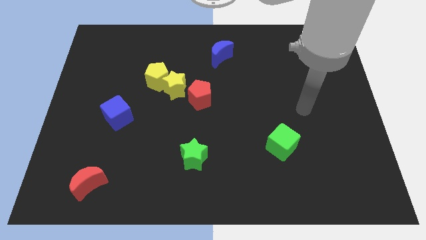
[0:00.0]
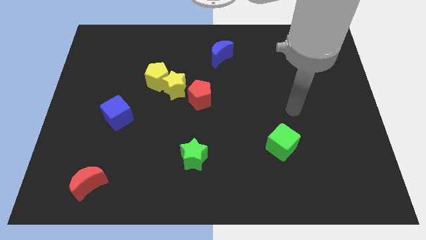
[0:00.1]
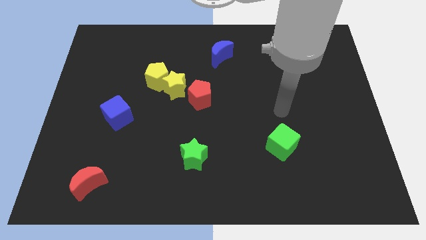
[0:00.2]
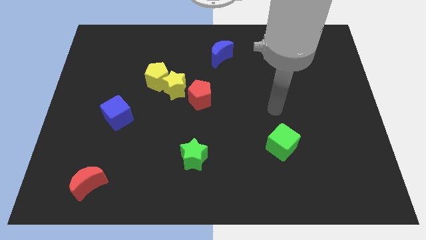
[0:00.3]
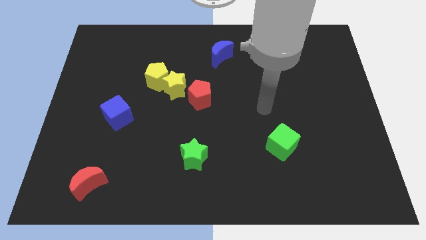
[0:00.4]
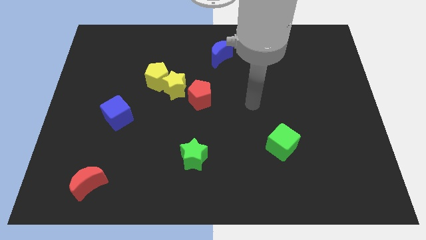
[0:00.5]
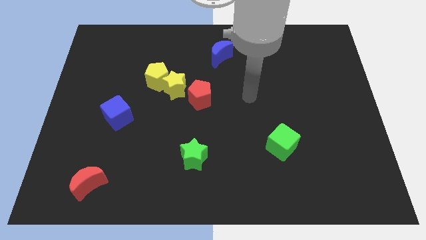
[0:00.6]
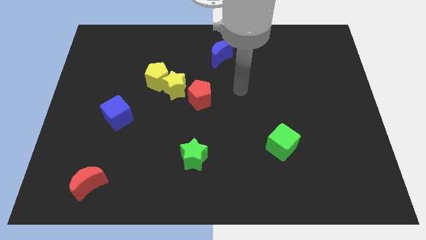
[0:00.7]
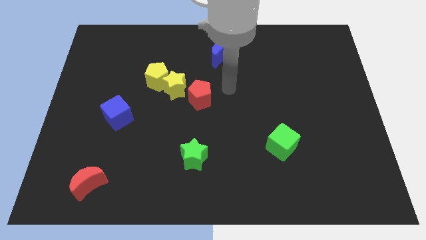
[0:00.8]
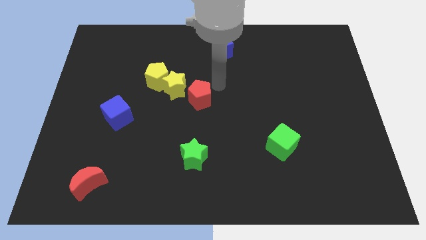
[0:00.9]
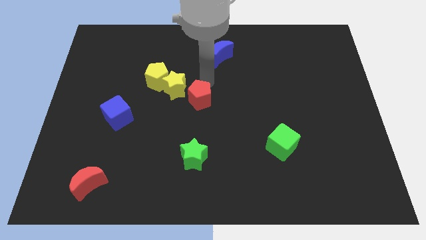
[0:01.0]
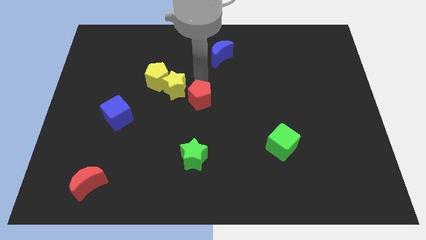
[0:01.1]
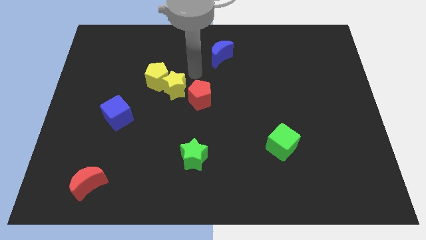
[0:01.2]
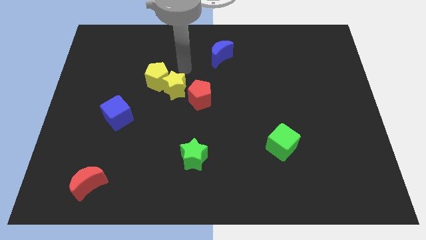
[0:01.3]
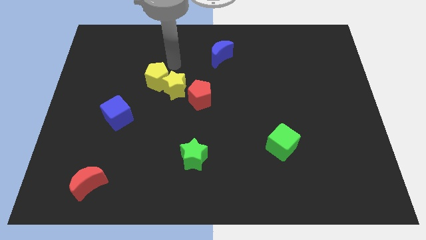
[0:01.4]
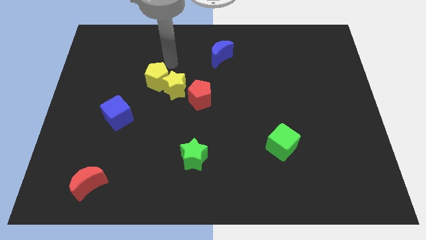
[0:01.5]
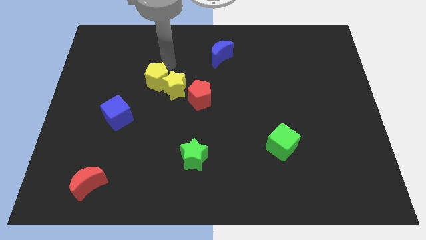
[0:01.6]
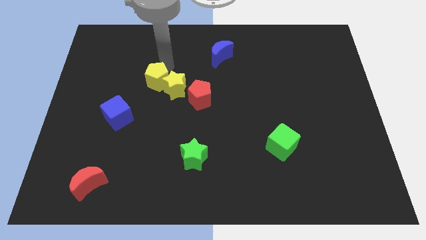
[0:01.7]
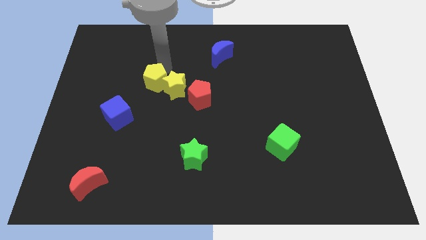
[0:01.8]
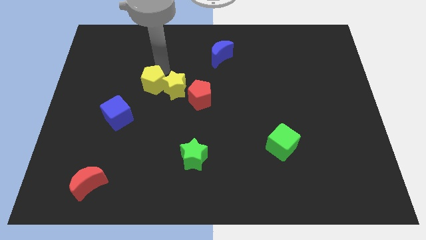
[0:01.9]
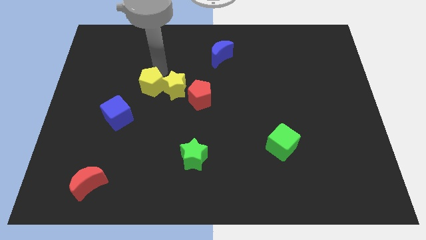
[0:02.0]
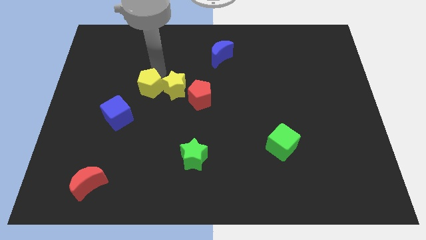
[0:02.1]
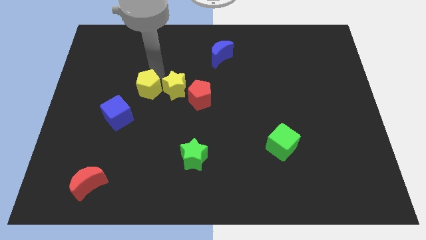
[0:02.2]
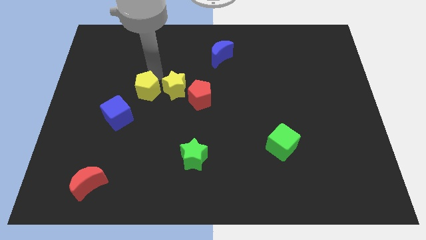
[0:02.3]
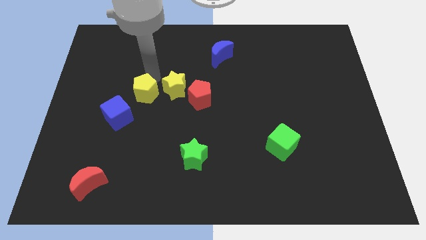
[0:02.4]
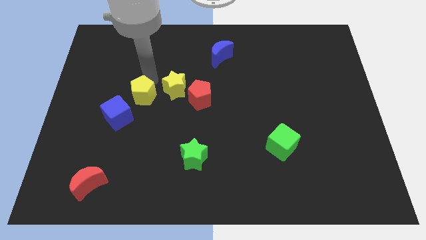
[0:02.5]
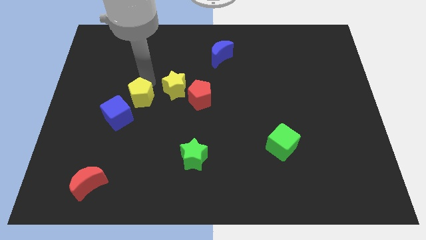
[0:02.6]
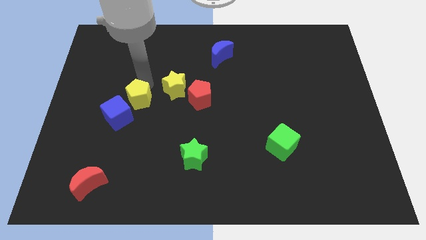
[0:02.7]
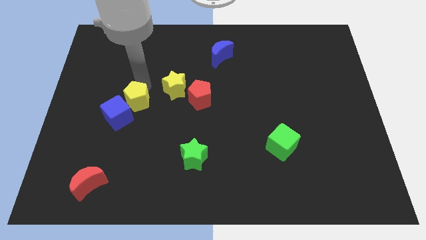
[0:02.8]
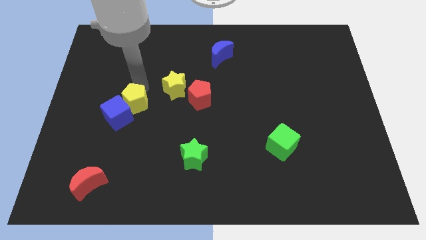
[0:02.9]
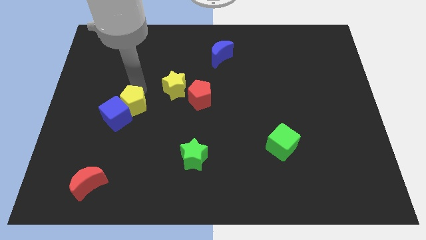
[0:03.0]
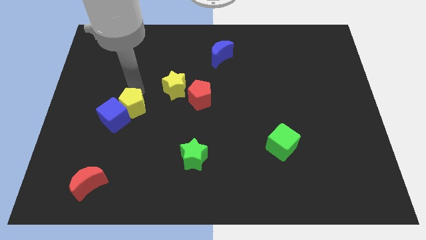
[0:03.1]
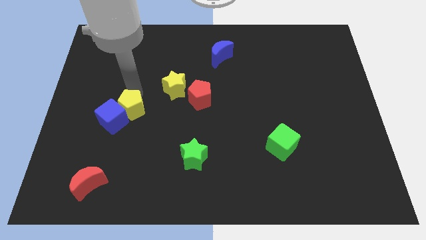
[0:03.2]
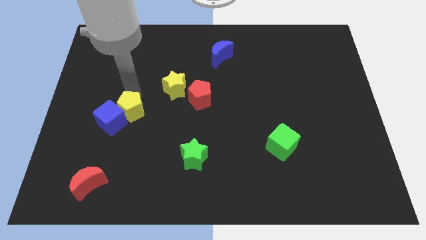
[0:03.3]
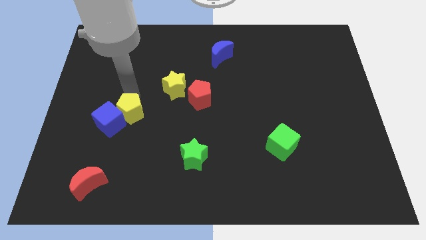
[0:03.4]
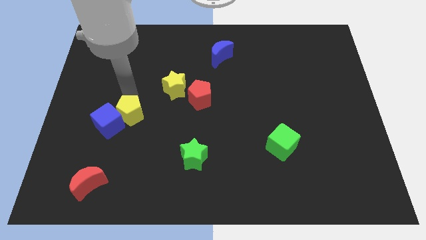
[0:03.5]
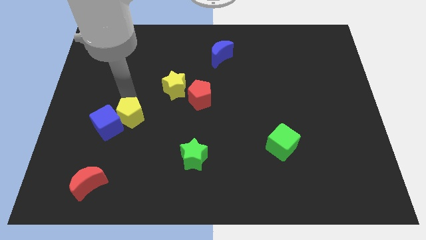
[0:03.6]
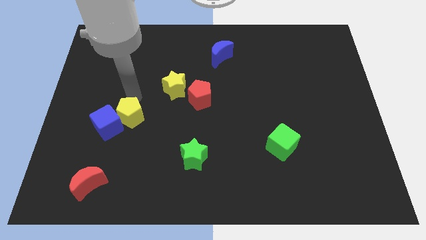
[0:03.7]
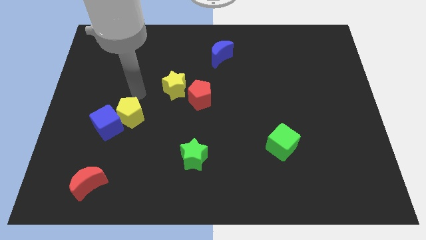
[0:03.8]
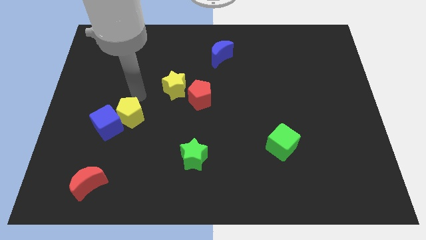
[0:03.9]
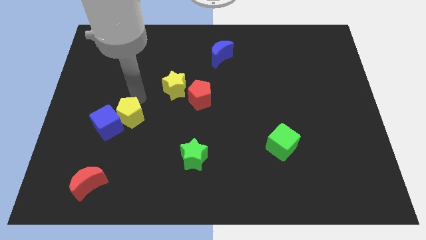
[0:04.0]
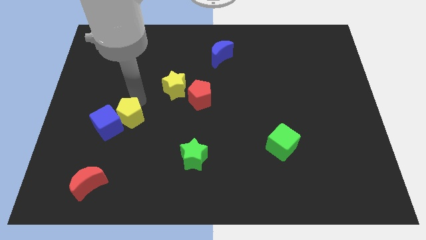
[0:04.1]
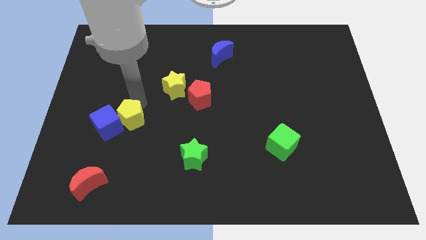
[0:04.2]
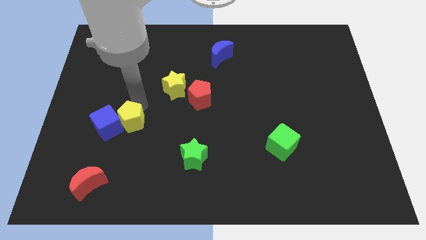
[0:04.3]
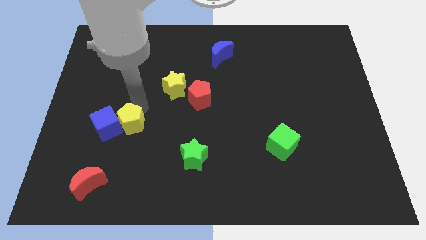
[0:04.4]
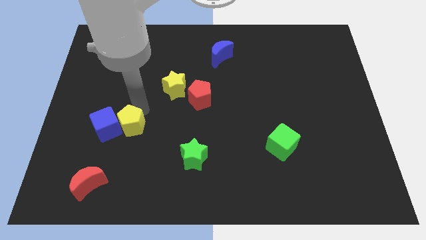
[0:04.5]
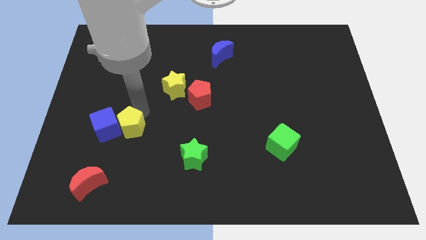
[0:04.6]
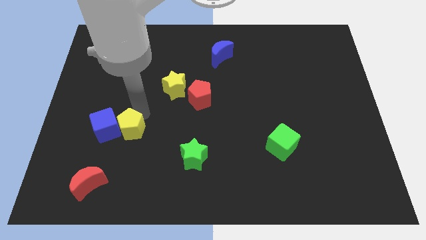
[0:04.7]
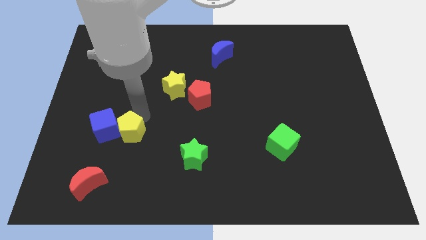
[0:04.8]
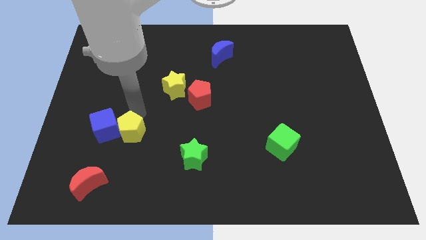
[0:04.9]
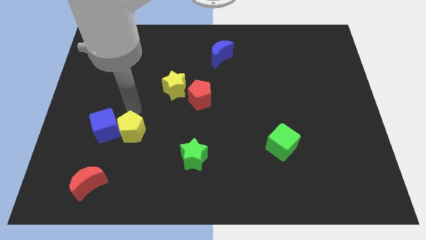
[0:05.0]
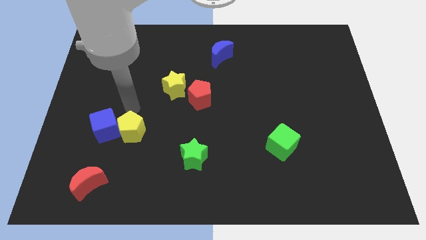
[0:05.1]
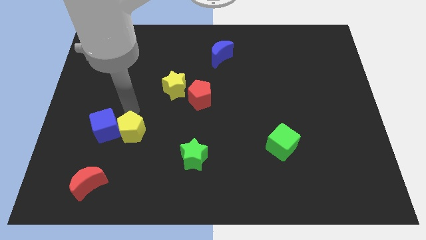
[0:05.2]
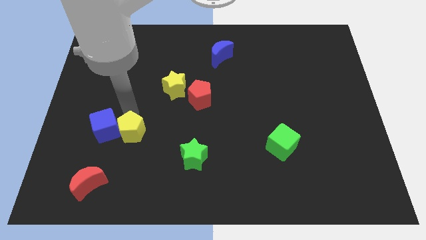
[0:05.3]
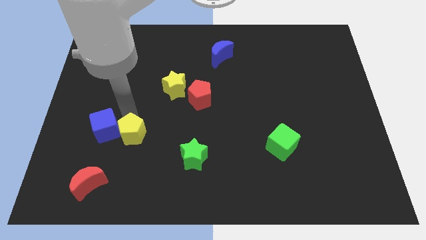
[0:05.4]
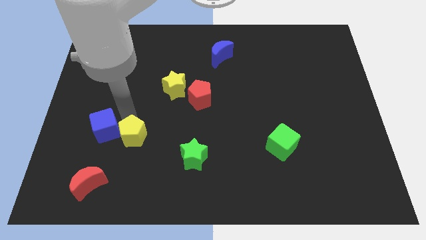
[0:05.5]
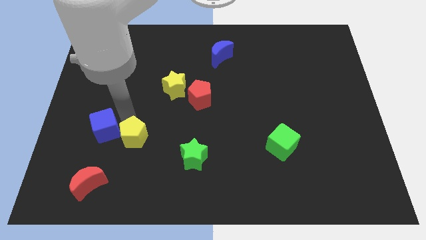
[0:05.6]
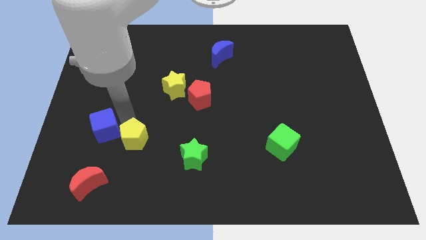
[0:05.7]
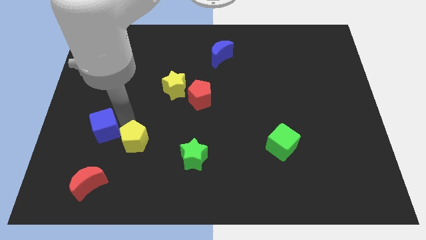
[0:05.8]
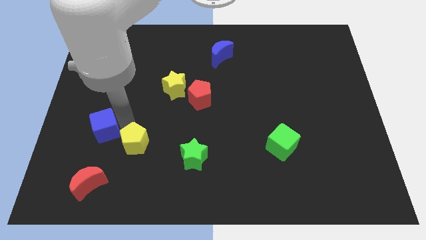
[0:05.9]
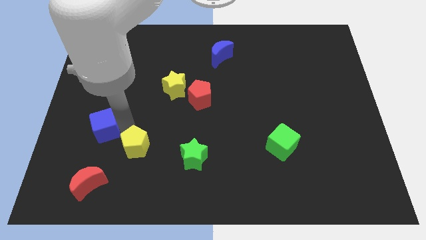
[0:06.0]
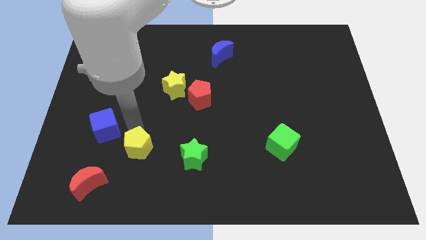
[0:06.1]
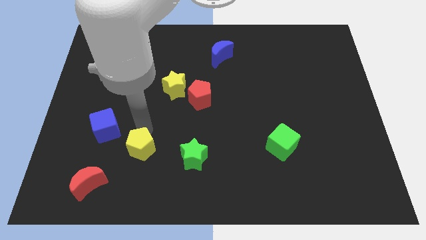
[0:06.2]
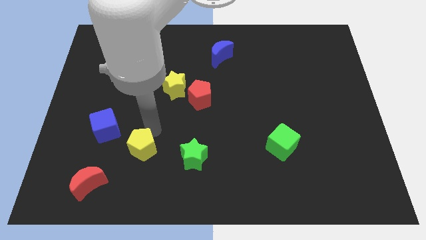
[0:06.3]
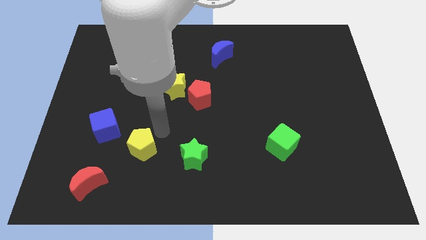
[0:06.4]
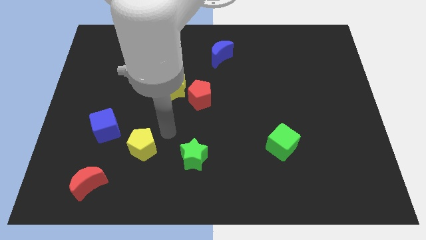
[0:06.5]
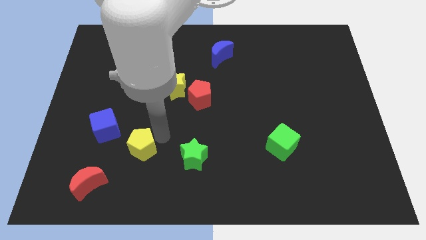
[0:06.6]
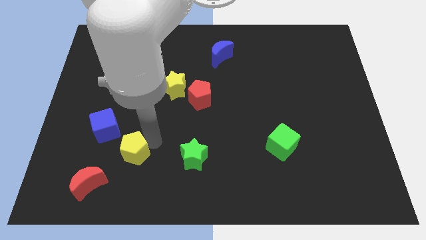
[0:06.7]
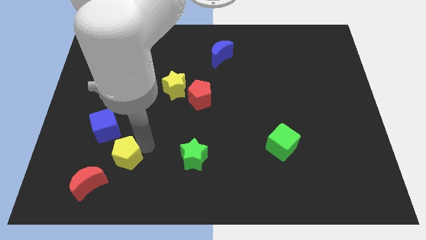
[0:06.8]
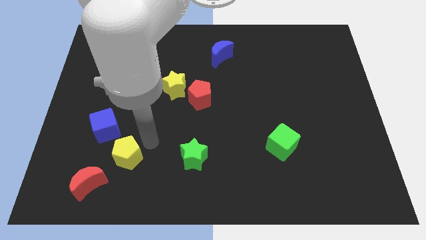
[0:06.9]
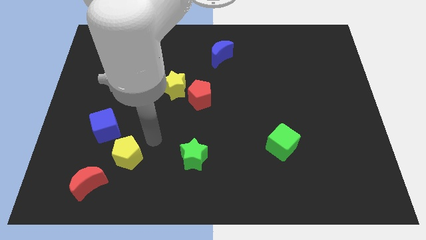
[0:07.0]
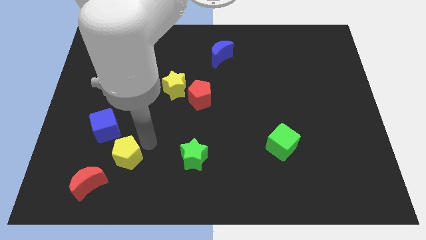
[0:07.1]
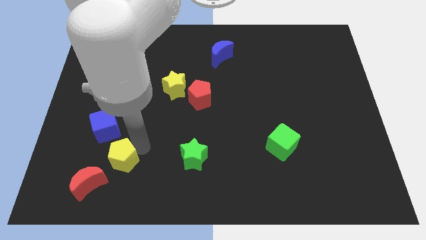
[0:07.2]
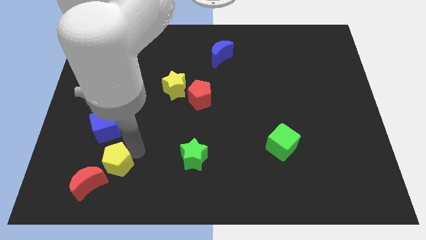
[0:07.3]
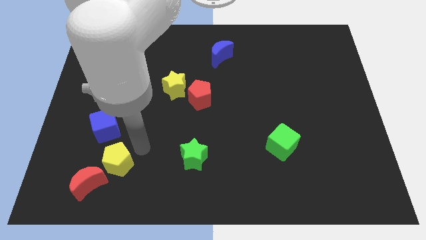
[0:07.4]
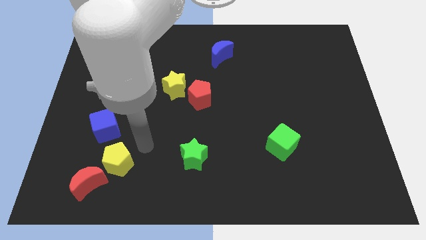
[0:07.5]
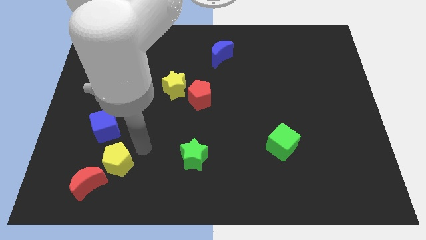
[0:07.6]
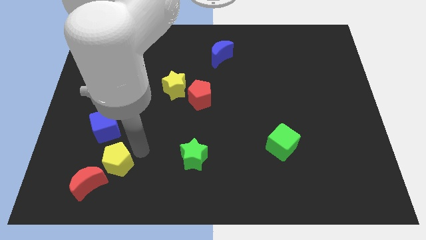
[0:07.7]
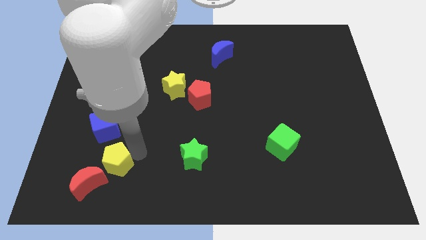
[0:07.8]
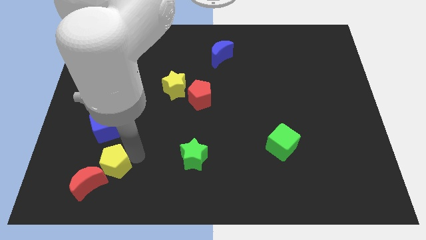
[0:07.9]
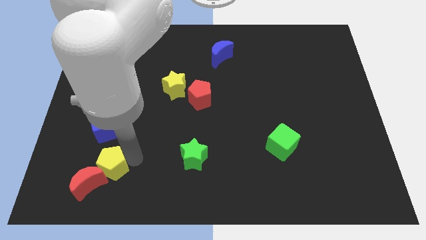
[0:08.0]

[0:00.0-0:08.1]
put the yellow pentagon close to the red moon
